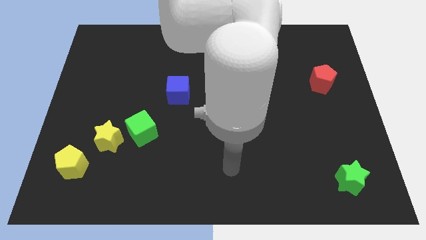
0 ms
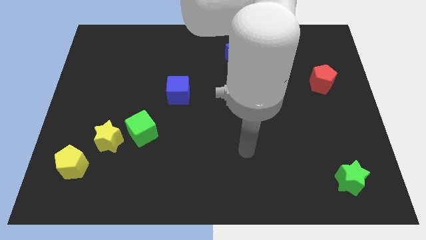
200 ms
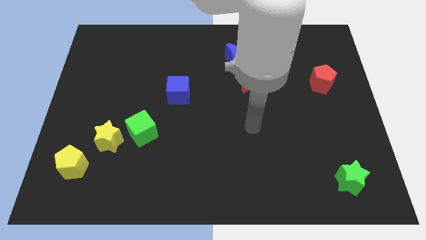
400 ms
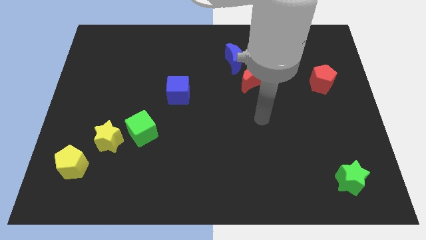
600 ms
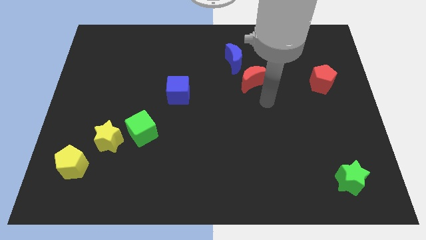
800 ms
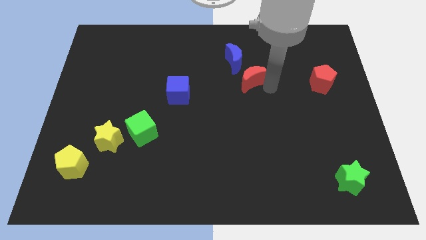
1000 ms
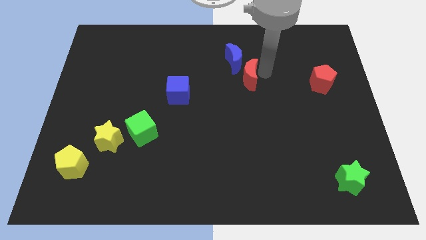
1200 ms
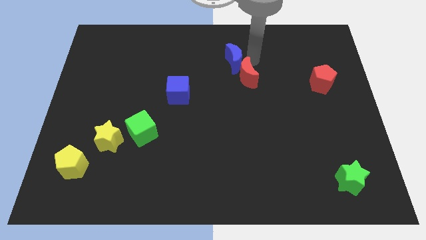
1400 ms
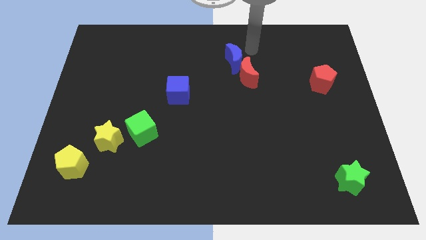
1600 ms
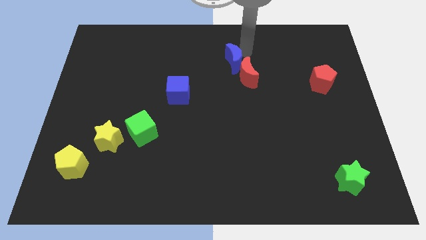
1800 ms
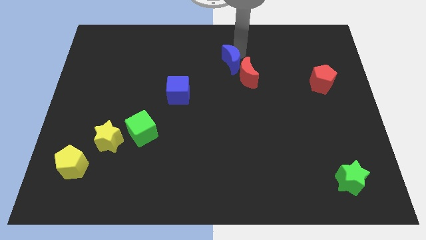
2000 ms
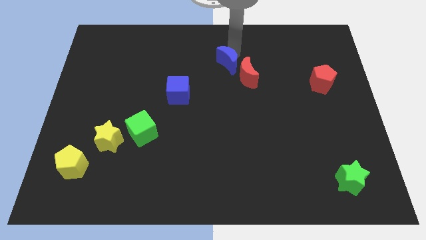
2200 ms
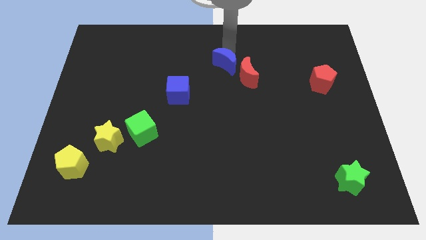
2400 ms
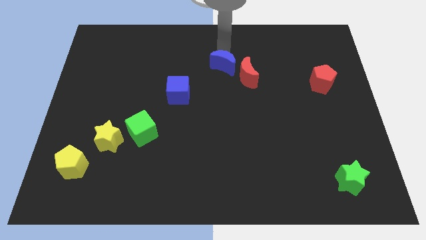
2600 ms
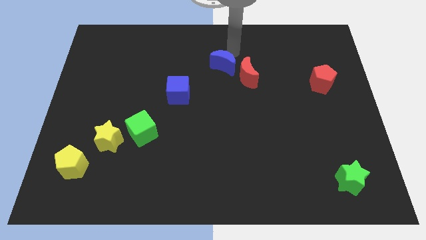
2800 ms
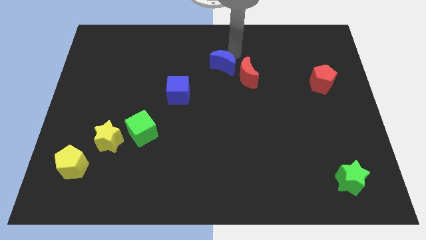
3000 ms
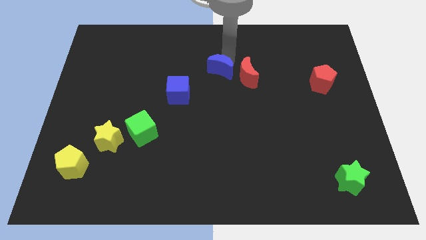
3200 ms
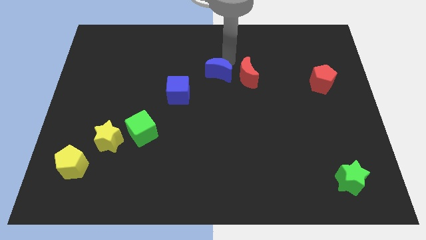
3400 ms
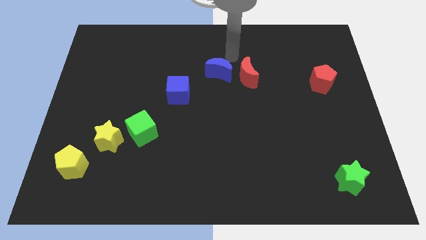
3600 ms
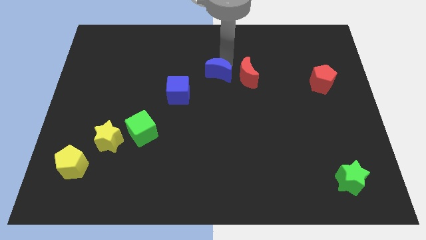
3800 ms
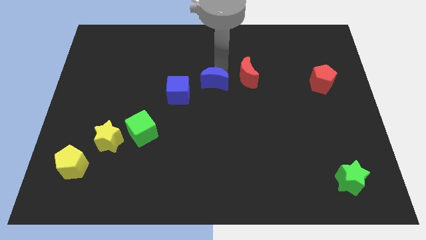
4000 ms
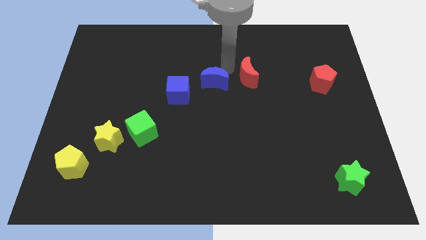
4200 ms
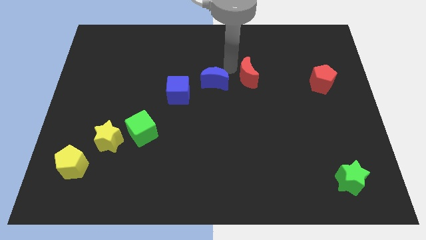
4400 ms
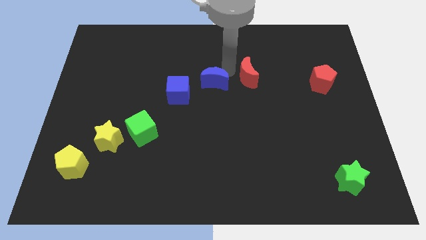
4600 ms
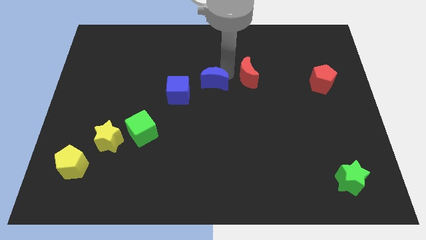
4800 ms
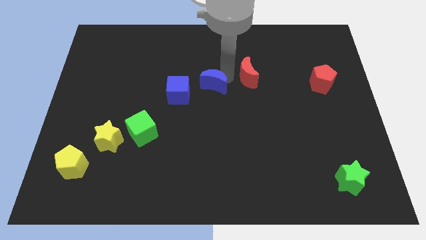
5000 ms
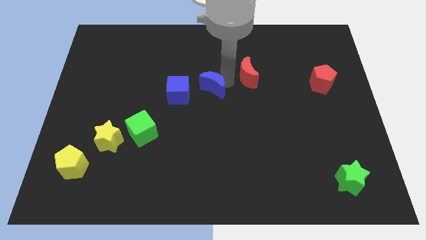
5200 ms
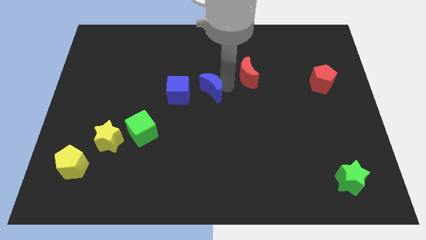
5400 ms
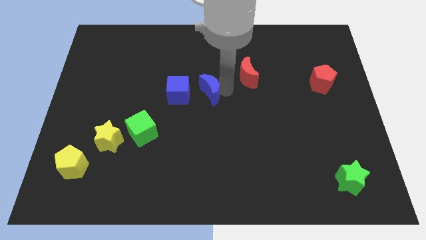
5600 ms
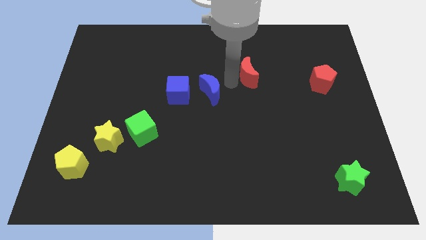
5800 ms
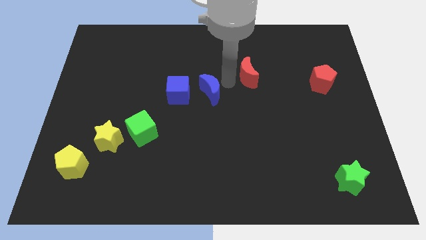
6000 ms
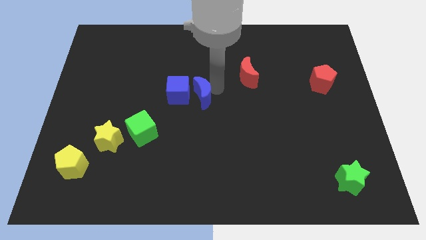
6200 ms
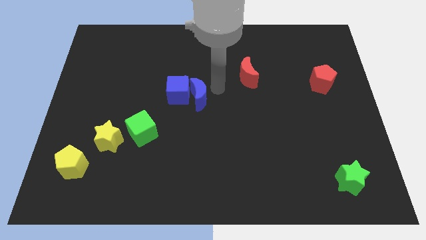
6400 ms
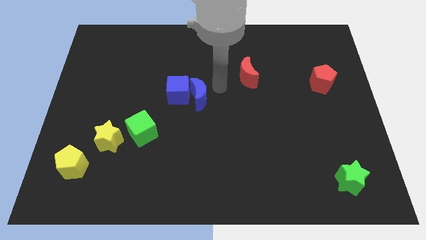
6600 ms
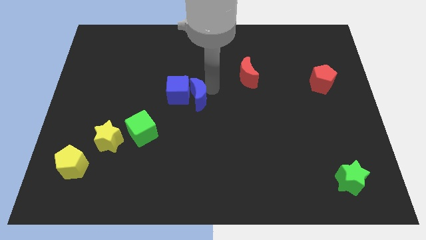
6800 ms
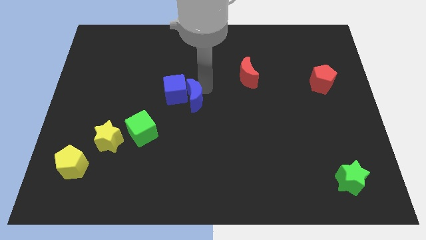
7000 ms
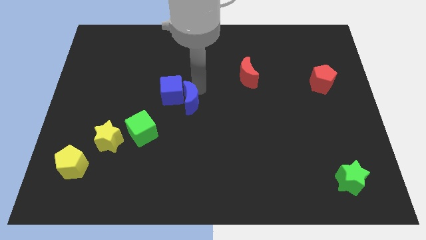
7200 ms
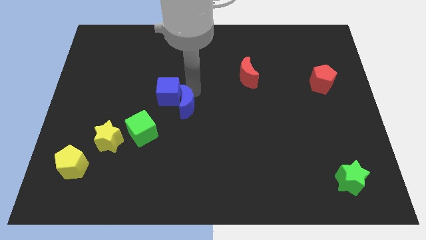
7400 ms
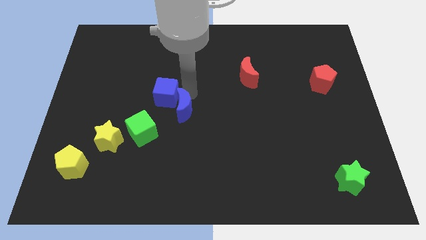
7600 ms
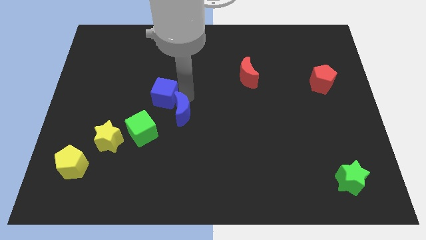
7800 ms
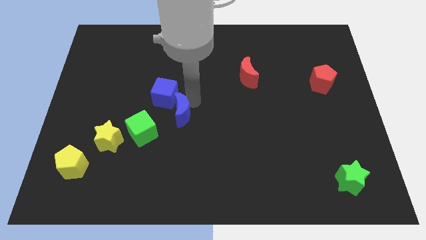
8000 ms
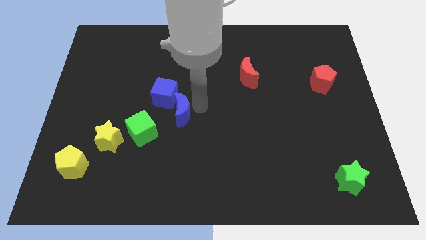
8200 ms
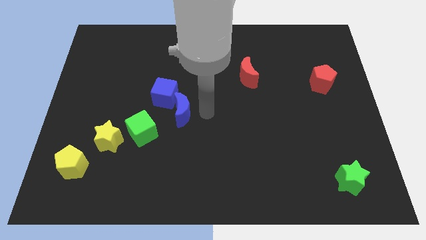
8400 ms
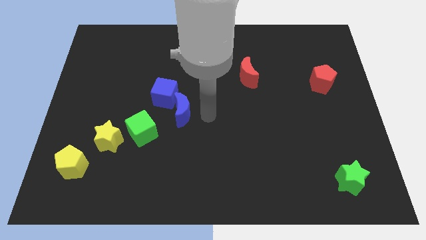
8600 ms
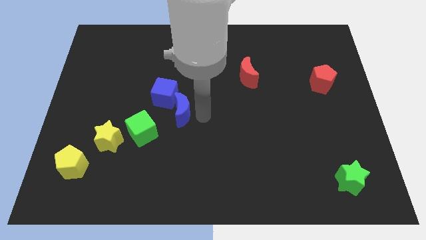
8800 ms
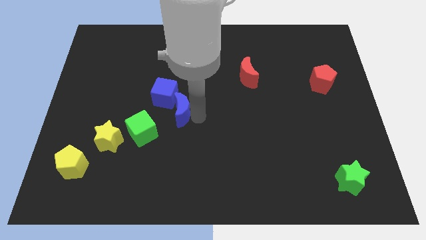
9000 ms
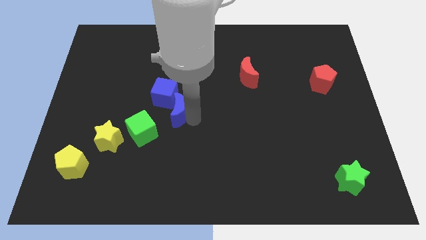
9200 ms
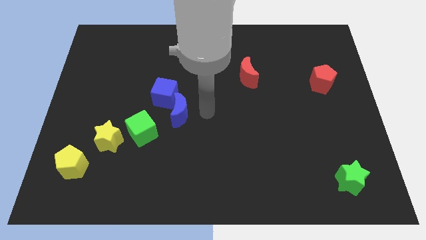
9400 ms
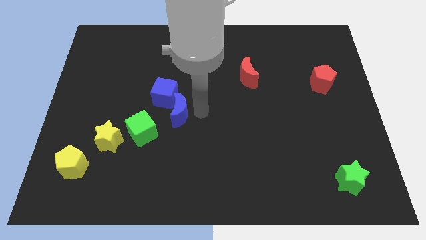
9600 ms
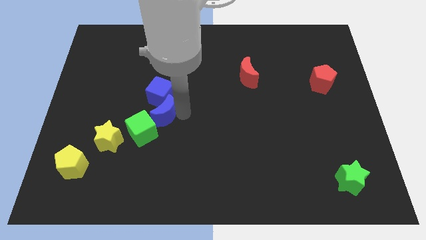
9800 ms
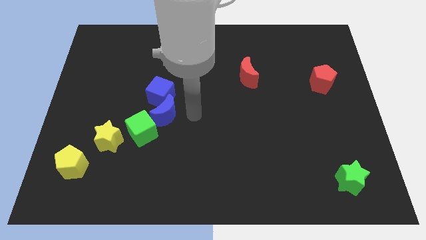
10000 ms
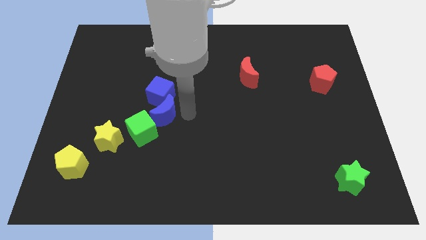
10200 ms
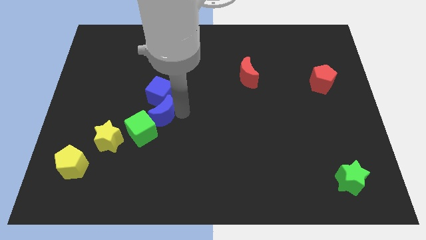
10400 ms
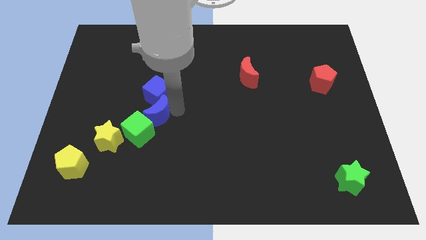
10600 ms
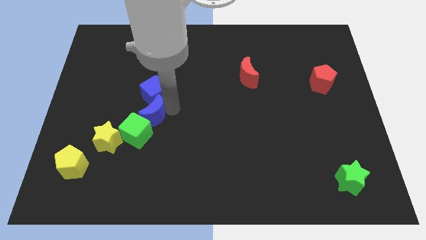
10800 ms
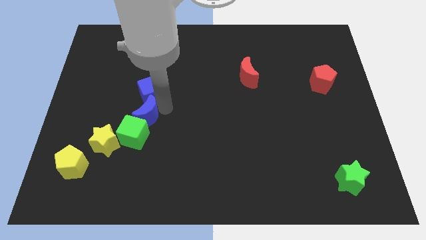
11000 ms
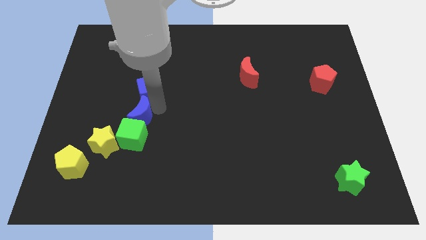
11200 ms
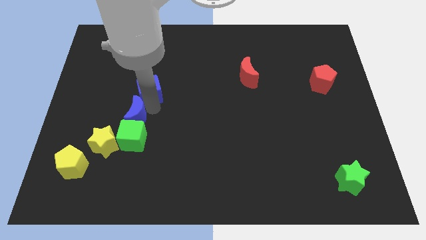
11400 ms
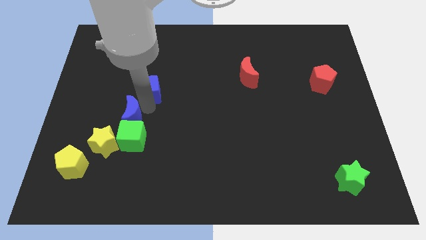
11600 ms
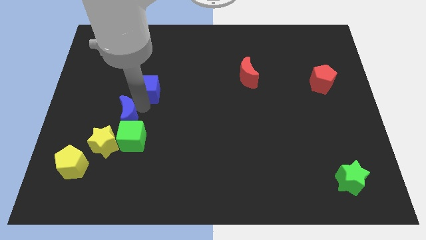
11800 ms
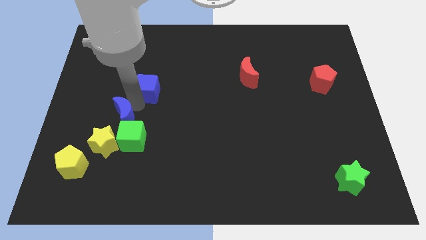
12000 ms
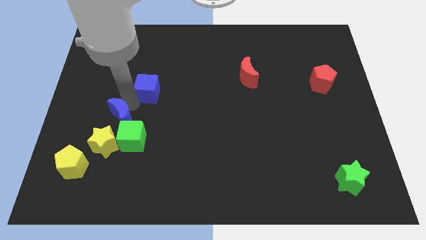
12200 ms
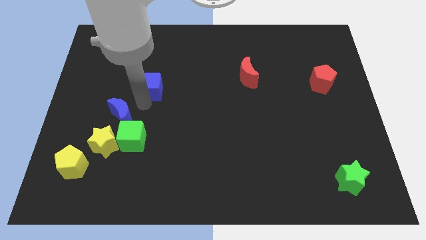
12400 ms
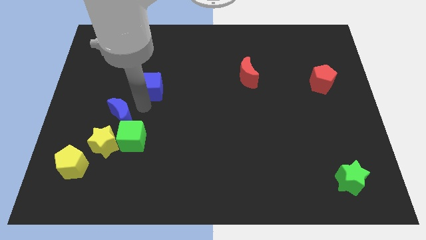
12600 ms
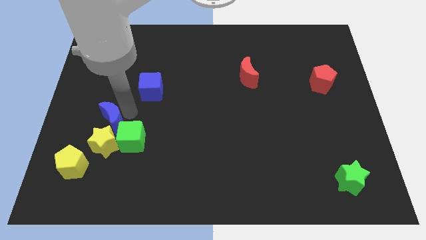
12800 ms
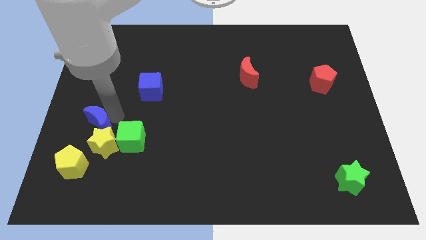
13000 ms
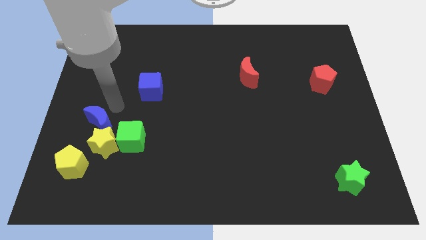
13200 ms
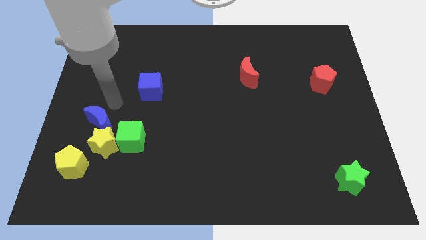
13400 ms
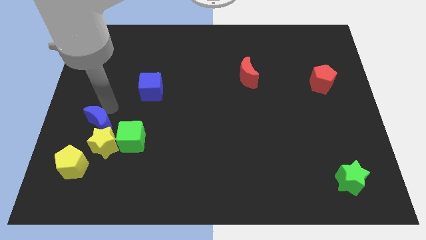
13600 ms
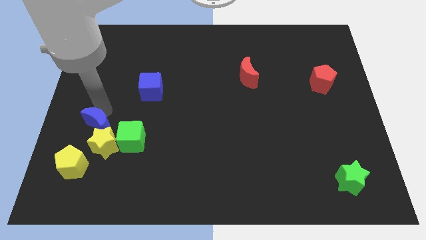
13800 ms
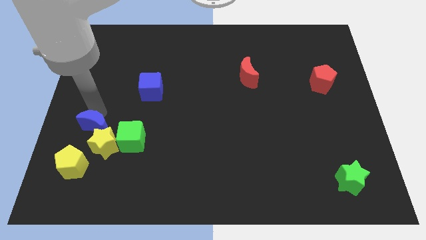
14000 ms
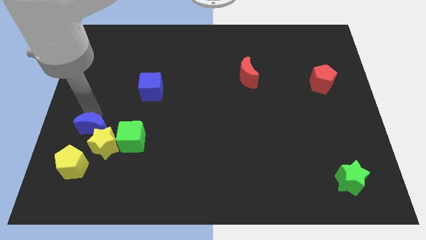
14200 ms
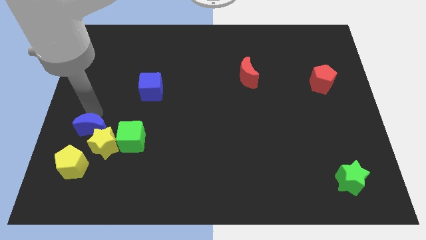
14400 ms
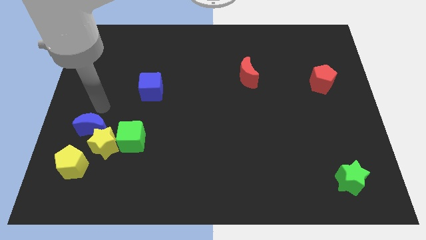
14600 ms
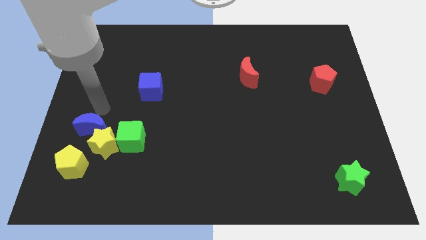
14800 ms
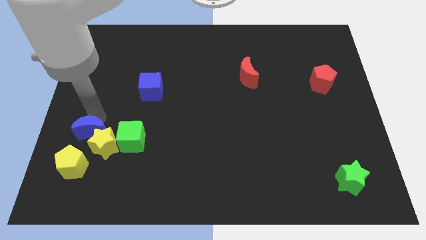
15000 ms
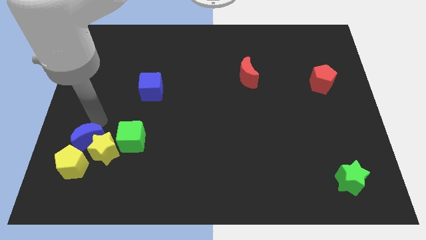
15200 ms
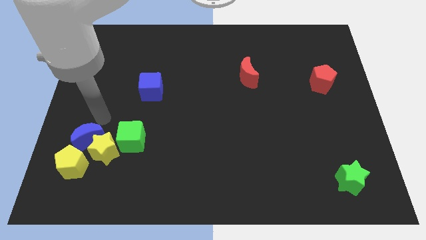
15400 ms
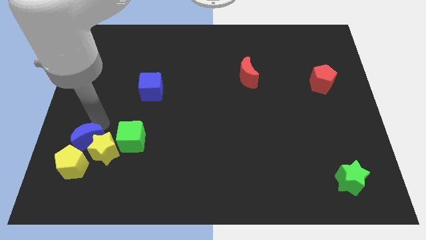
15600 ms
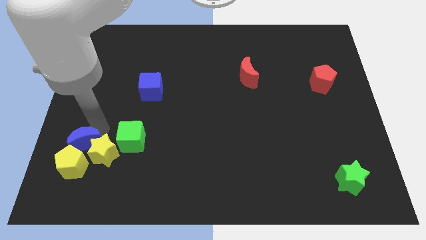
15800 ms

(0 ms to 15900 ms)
slide the blue moon towards the yellow pentagon
